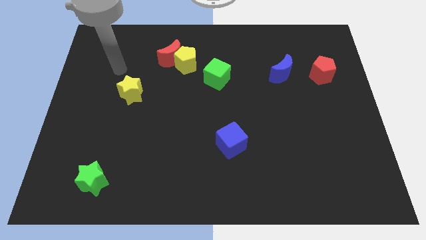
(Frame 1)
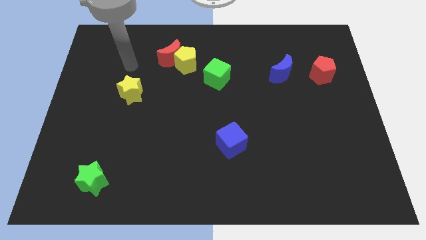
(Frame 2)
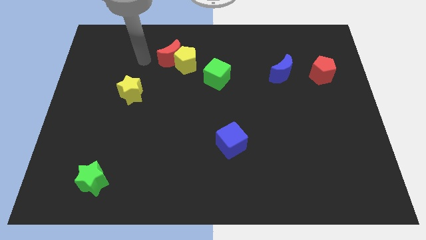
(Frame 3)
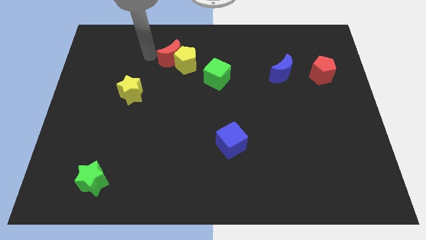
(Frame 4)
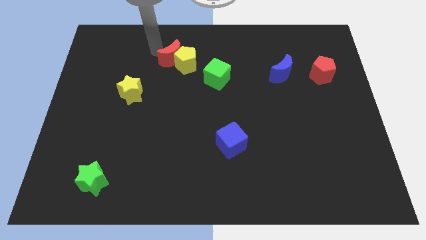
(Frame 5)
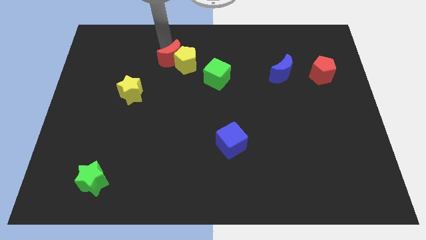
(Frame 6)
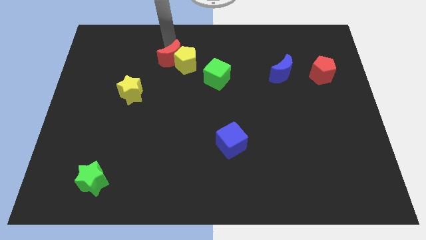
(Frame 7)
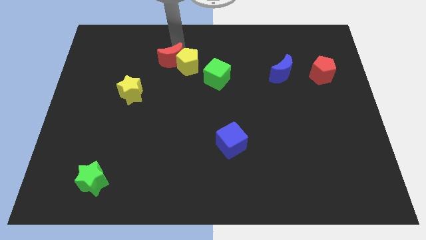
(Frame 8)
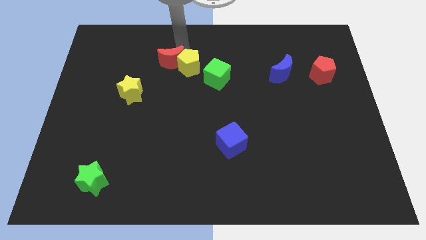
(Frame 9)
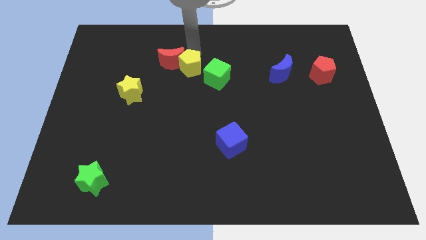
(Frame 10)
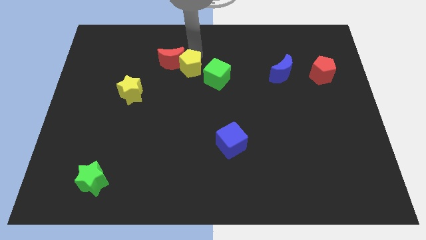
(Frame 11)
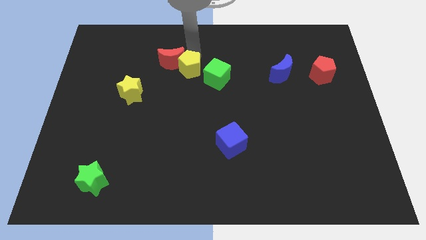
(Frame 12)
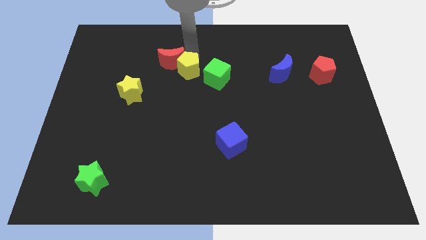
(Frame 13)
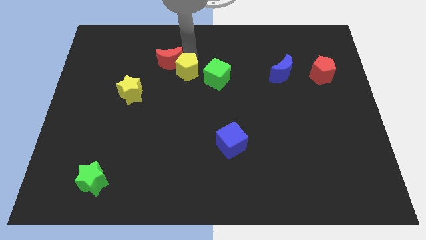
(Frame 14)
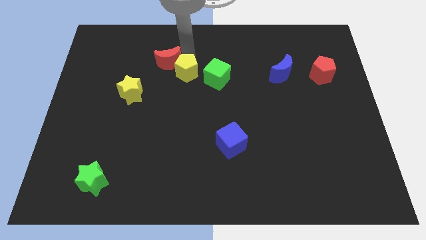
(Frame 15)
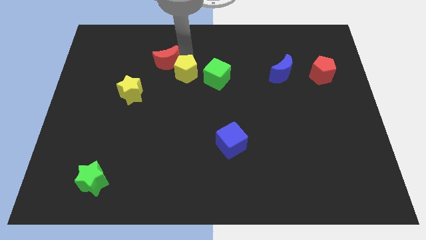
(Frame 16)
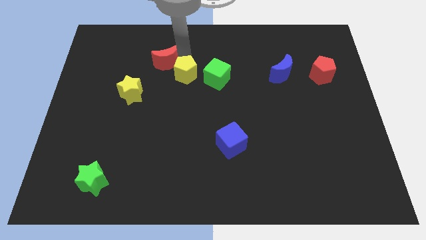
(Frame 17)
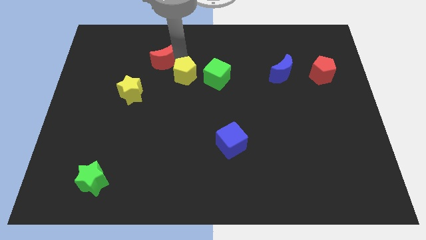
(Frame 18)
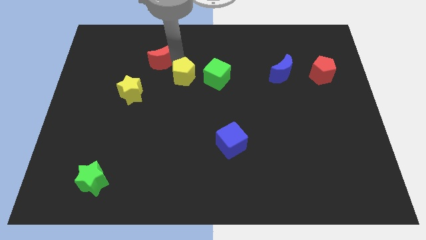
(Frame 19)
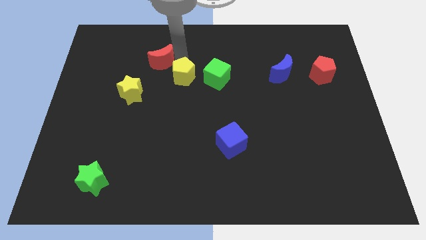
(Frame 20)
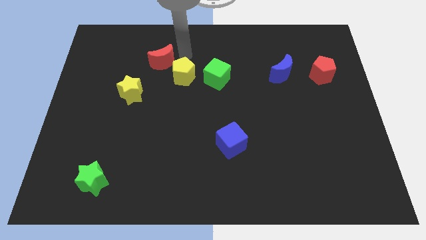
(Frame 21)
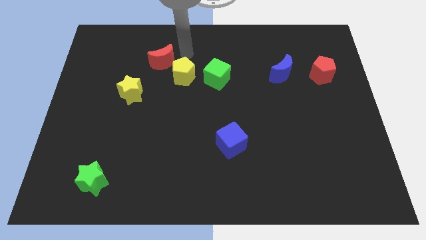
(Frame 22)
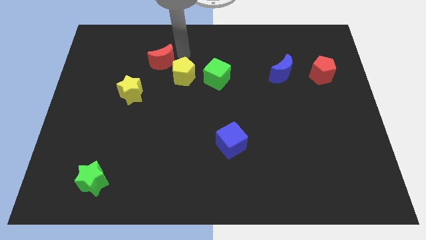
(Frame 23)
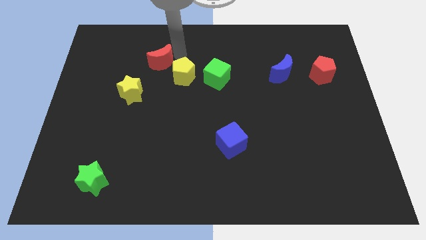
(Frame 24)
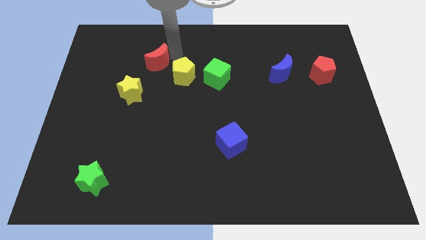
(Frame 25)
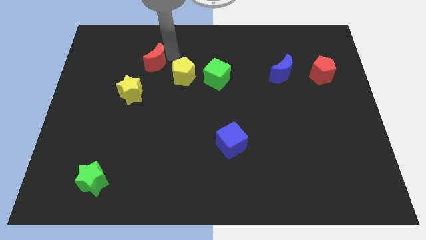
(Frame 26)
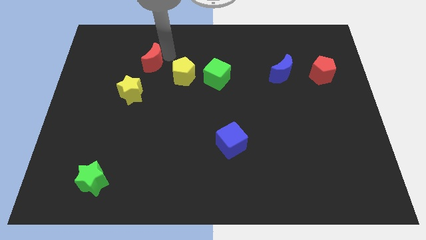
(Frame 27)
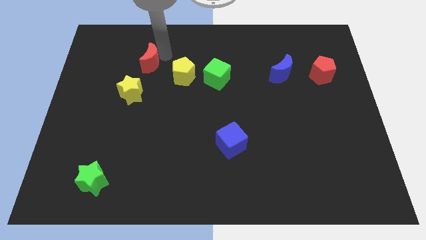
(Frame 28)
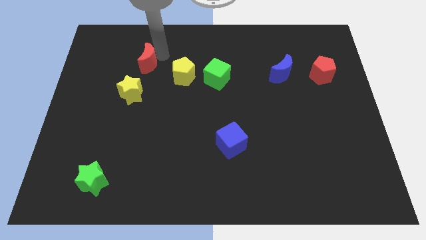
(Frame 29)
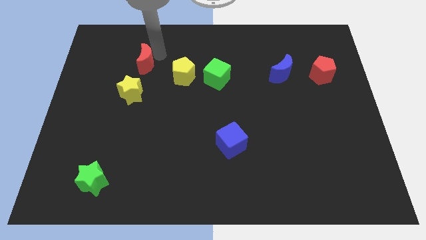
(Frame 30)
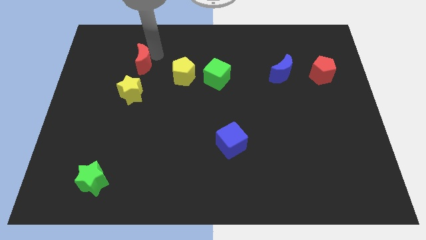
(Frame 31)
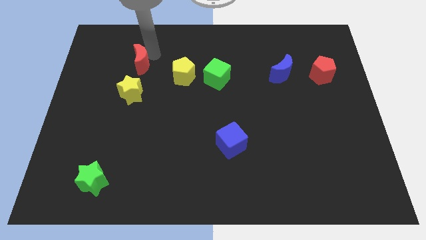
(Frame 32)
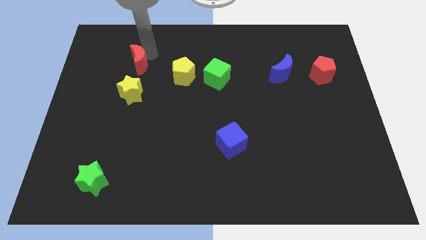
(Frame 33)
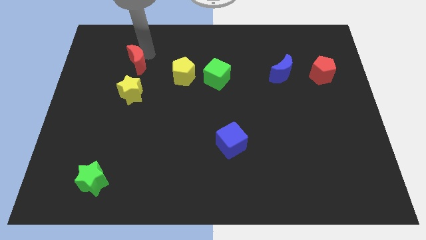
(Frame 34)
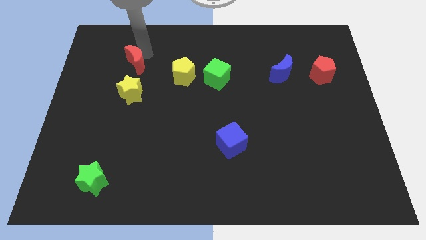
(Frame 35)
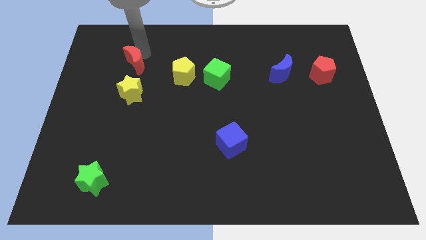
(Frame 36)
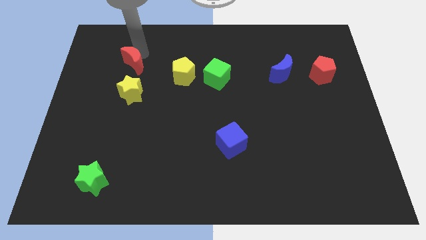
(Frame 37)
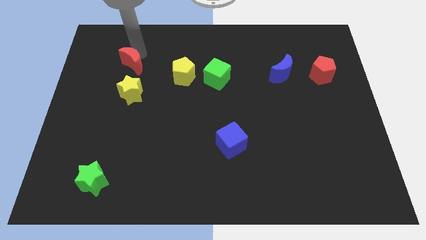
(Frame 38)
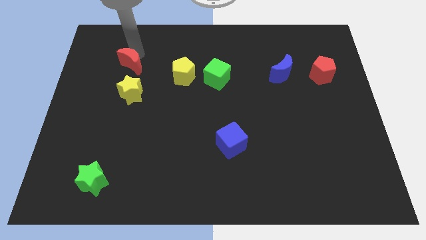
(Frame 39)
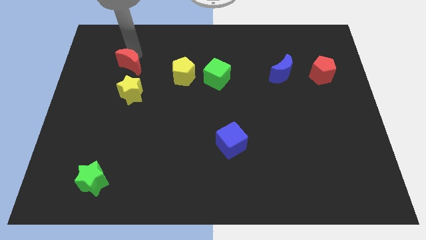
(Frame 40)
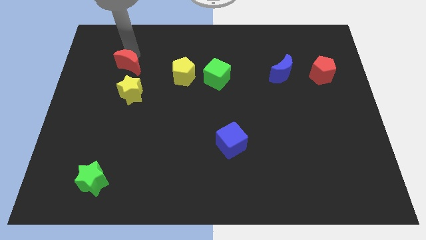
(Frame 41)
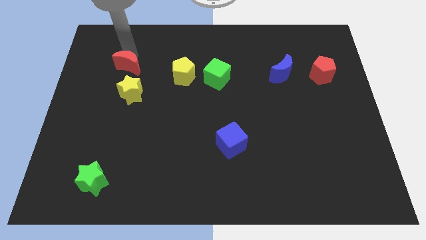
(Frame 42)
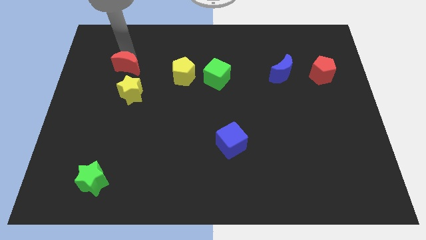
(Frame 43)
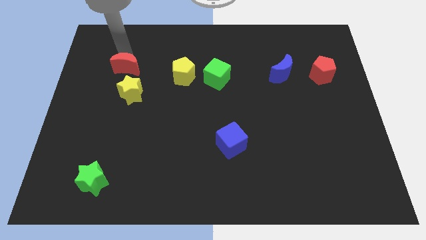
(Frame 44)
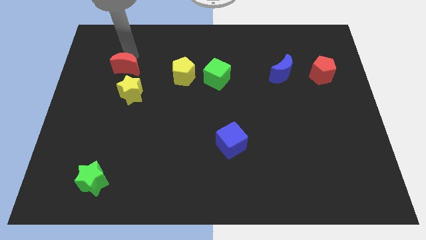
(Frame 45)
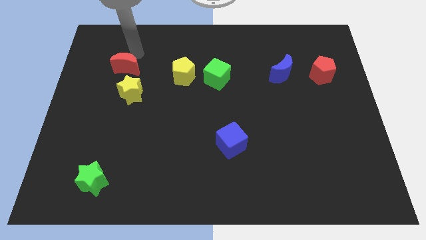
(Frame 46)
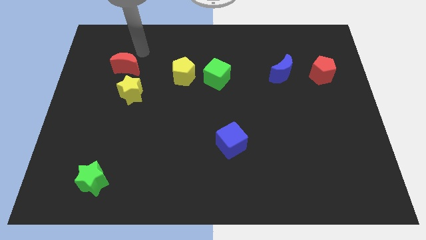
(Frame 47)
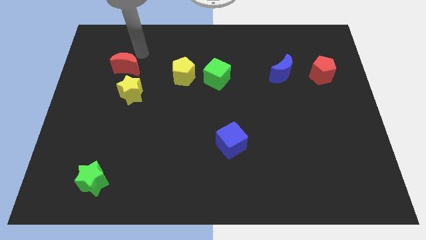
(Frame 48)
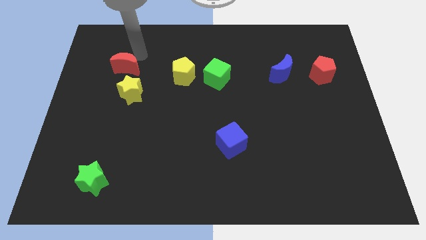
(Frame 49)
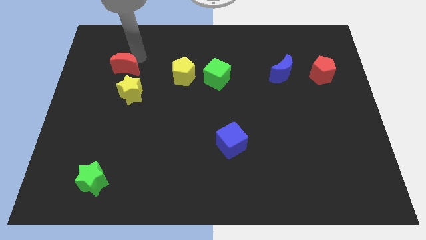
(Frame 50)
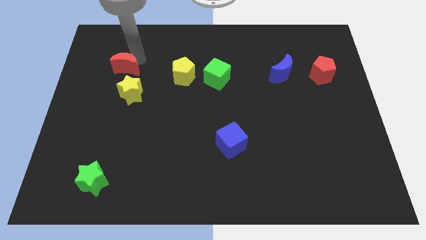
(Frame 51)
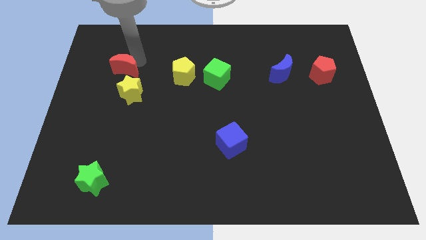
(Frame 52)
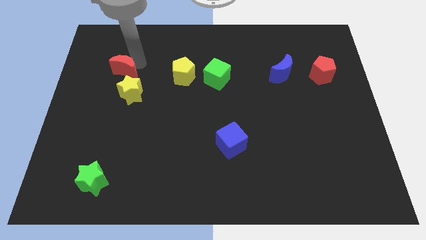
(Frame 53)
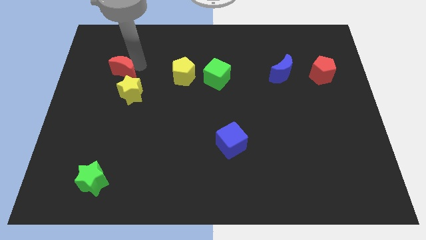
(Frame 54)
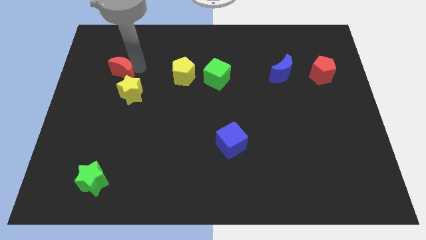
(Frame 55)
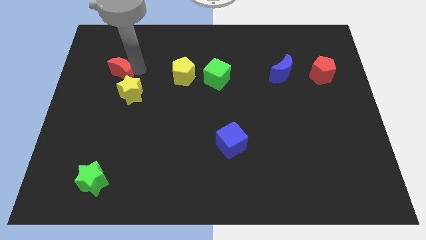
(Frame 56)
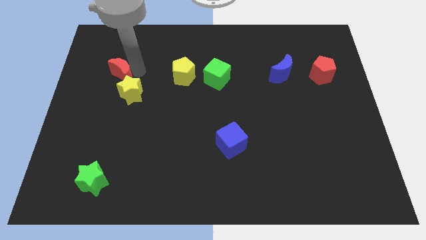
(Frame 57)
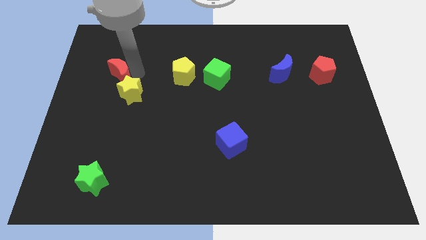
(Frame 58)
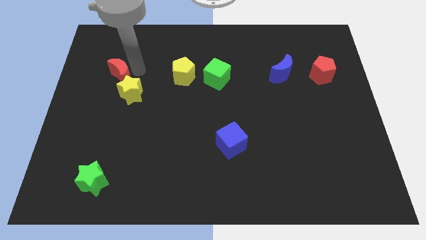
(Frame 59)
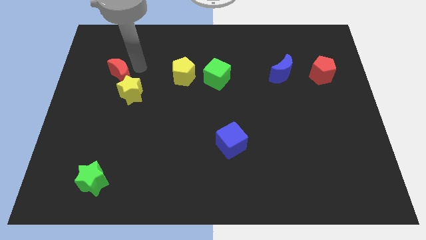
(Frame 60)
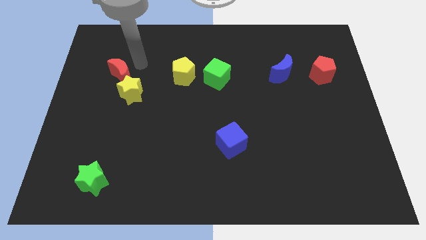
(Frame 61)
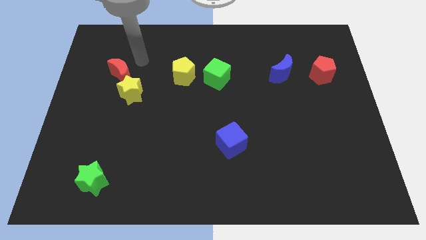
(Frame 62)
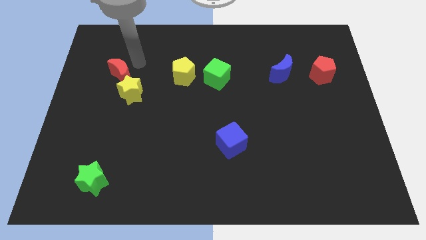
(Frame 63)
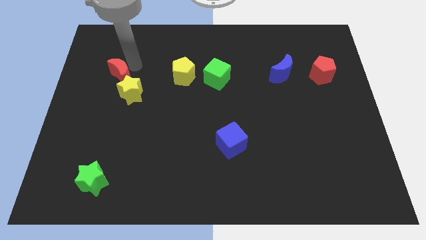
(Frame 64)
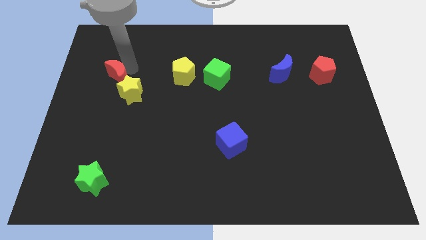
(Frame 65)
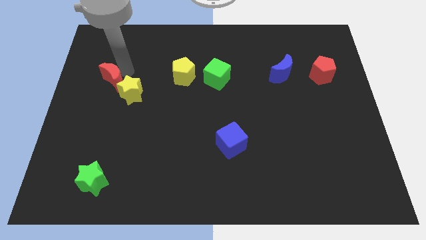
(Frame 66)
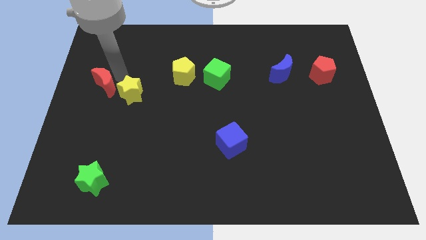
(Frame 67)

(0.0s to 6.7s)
push the red moon to the left side of the board
